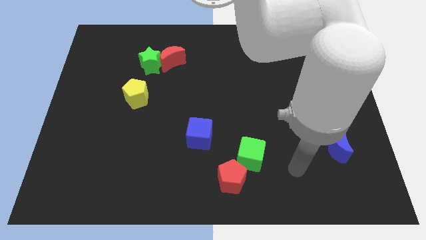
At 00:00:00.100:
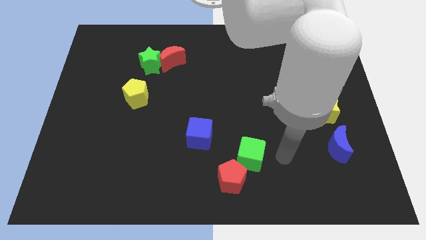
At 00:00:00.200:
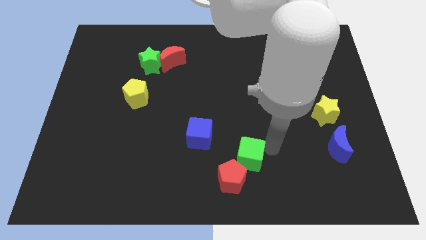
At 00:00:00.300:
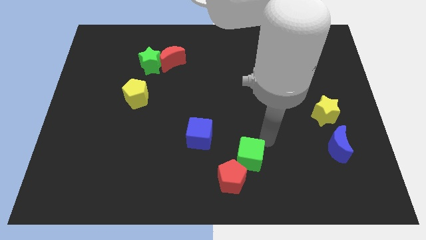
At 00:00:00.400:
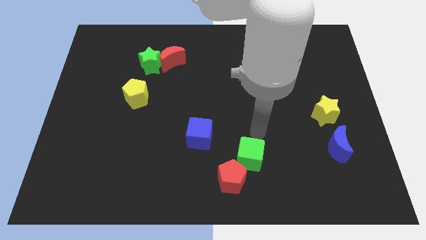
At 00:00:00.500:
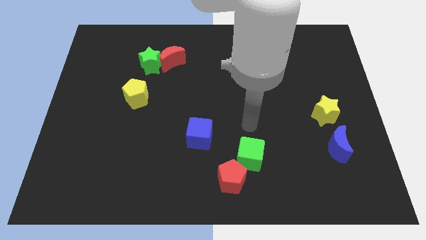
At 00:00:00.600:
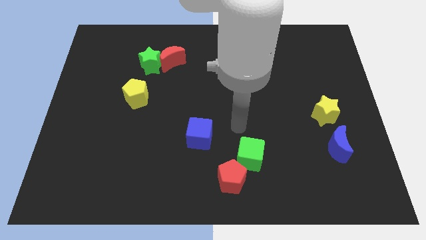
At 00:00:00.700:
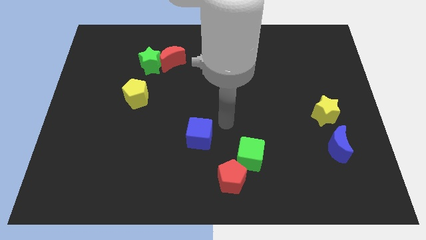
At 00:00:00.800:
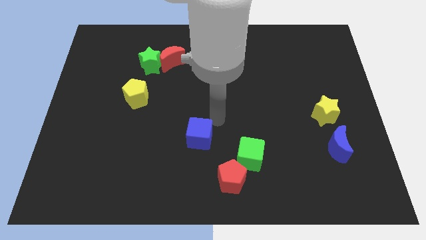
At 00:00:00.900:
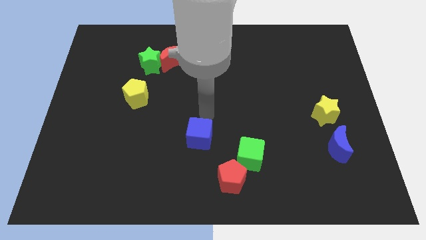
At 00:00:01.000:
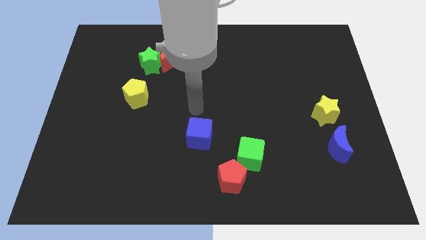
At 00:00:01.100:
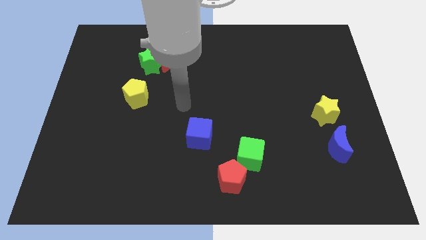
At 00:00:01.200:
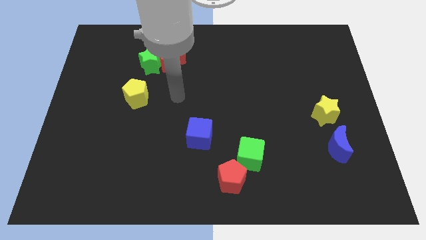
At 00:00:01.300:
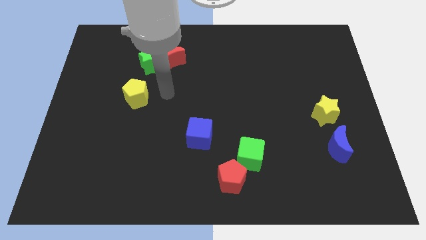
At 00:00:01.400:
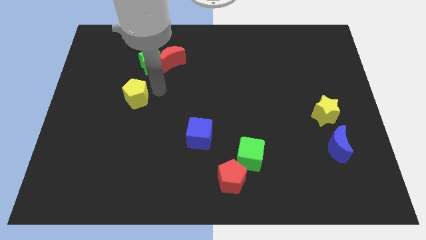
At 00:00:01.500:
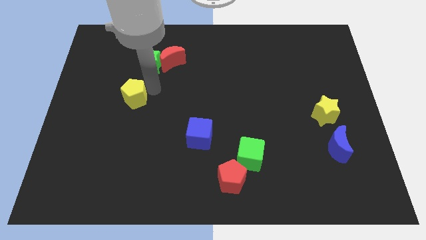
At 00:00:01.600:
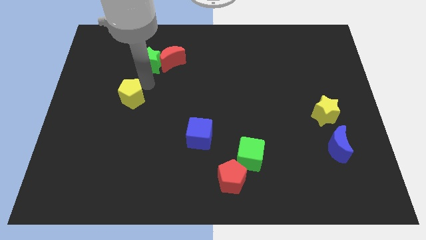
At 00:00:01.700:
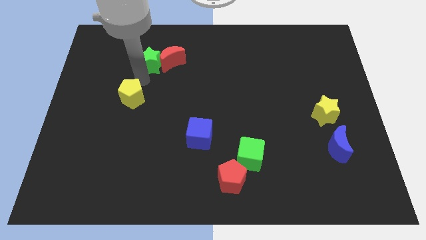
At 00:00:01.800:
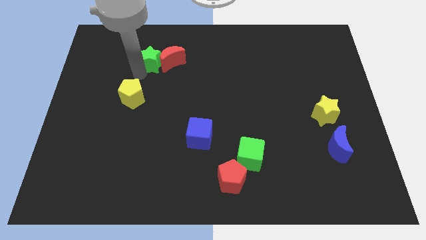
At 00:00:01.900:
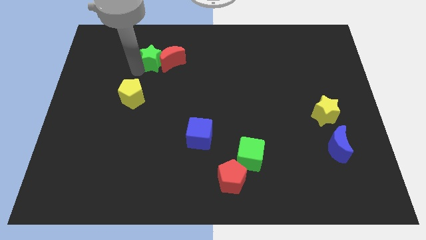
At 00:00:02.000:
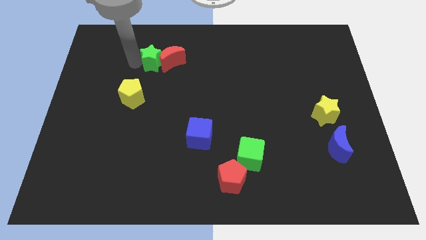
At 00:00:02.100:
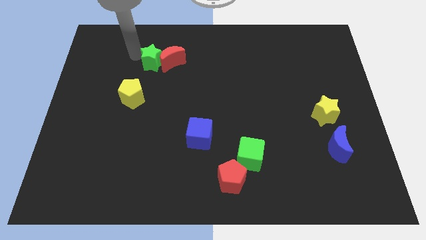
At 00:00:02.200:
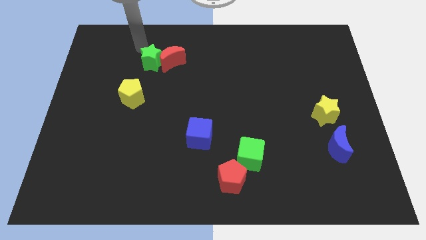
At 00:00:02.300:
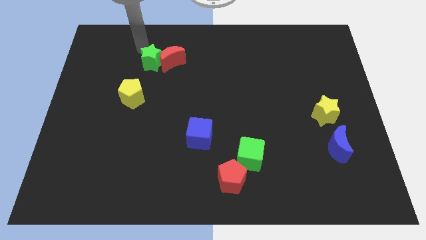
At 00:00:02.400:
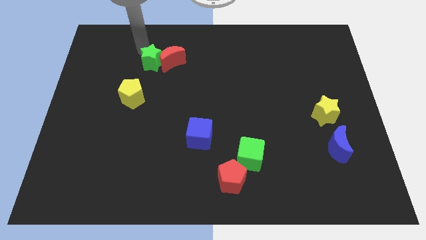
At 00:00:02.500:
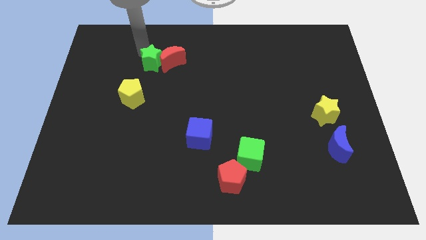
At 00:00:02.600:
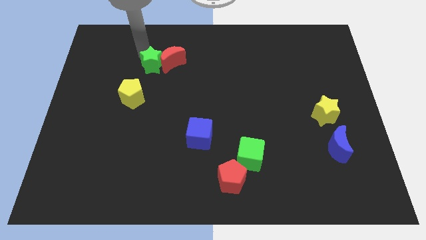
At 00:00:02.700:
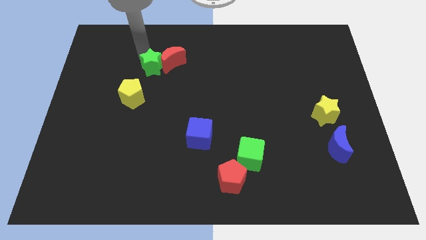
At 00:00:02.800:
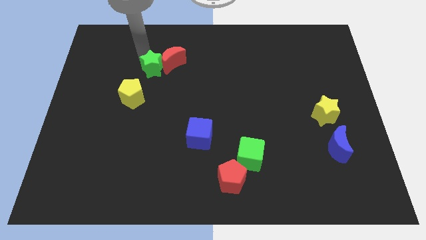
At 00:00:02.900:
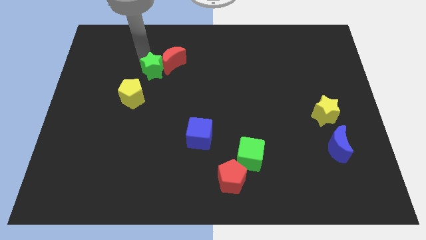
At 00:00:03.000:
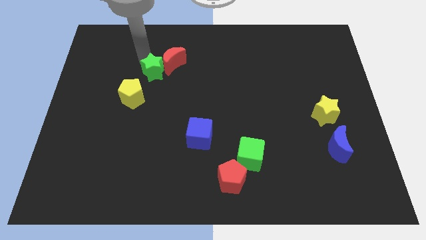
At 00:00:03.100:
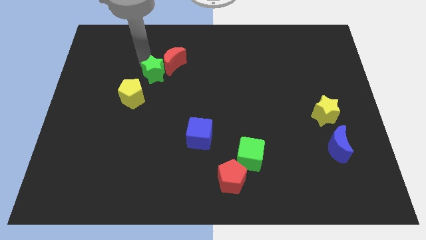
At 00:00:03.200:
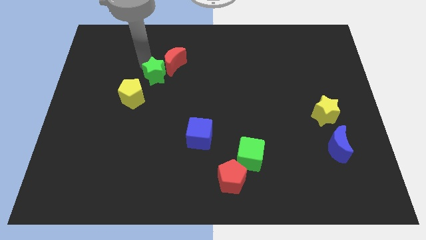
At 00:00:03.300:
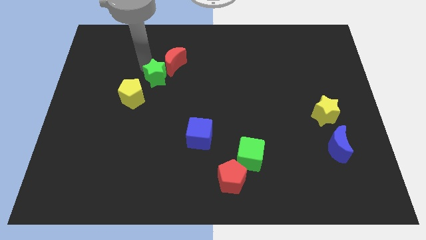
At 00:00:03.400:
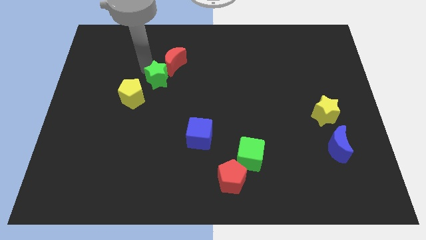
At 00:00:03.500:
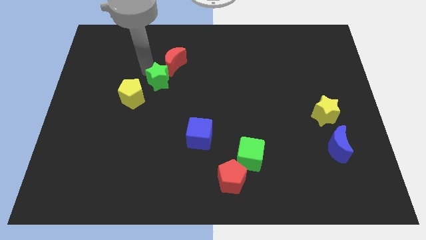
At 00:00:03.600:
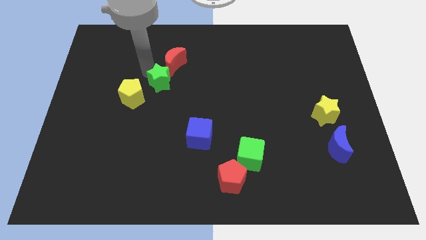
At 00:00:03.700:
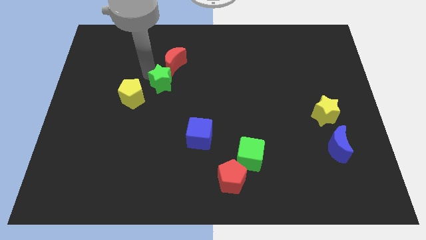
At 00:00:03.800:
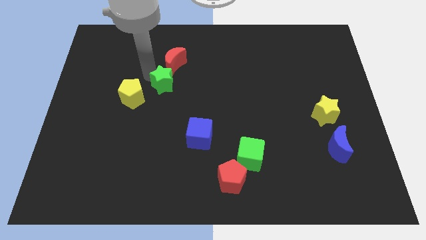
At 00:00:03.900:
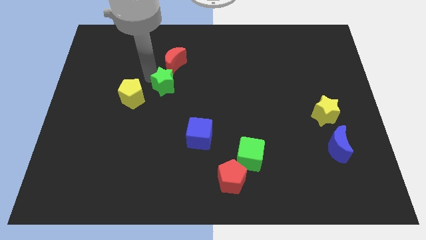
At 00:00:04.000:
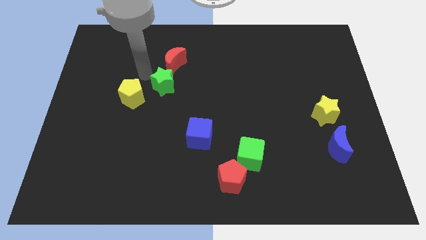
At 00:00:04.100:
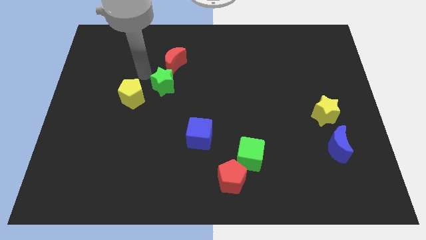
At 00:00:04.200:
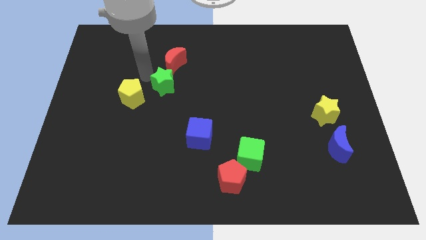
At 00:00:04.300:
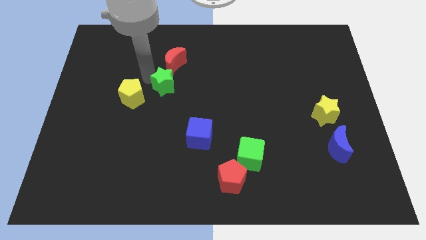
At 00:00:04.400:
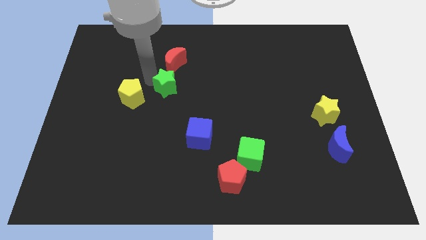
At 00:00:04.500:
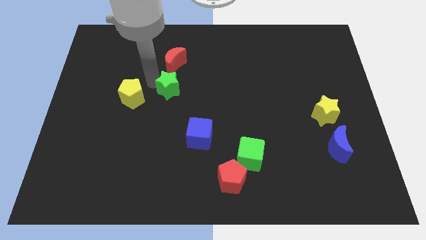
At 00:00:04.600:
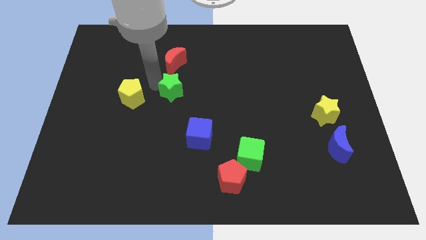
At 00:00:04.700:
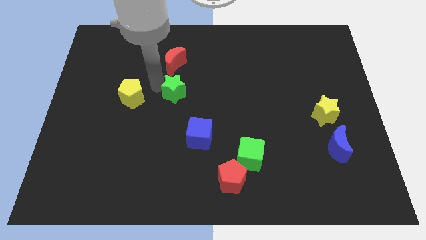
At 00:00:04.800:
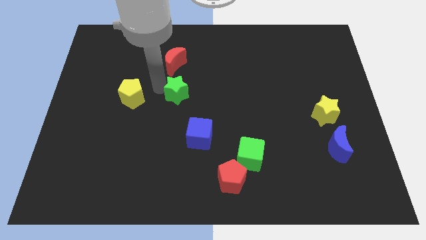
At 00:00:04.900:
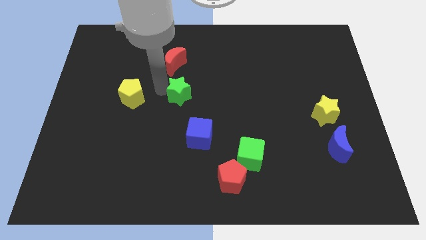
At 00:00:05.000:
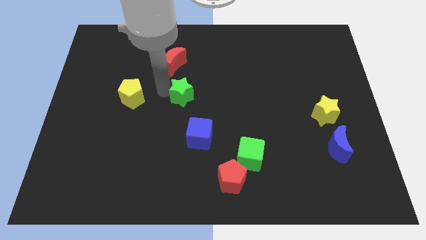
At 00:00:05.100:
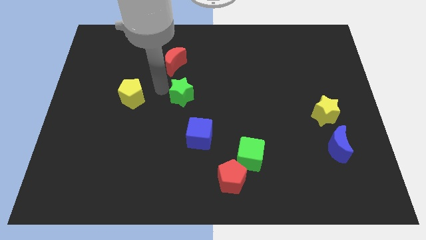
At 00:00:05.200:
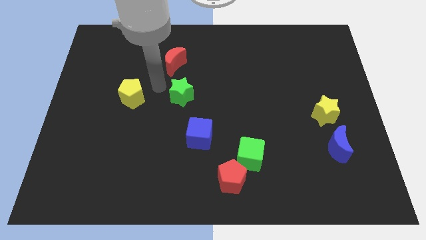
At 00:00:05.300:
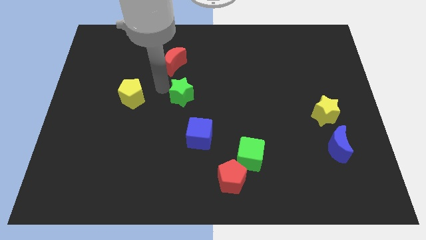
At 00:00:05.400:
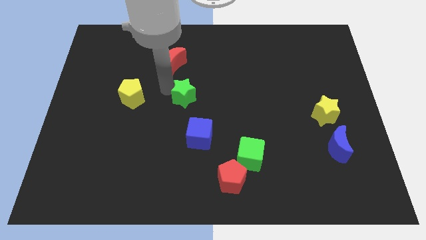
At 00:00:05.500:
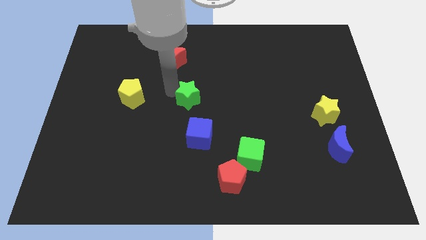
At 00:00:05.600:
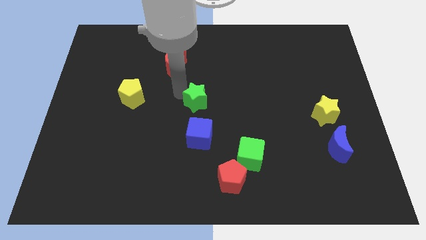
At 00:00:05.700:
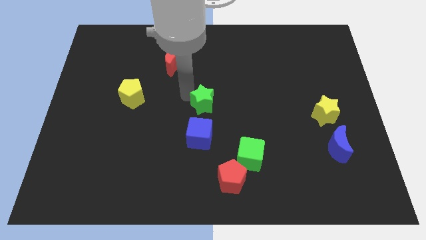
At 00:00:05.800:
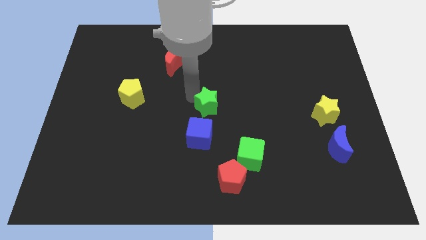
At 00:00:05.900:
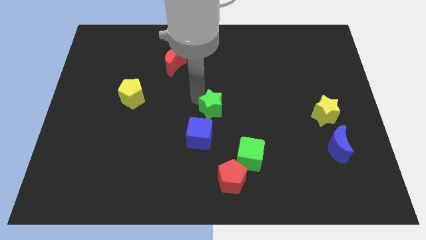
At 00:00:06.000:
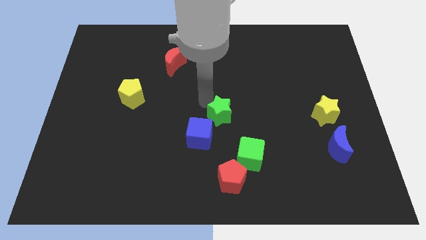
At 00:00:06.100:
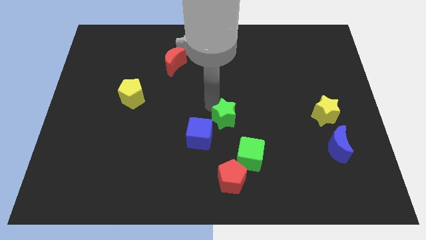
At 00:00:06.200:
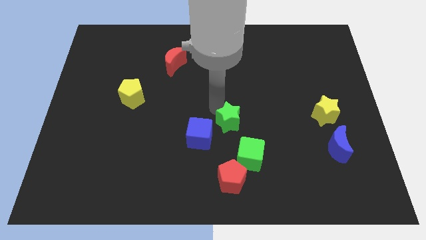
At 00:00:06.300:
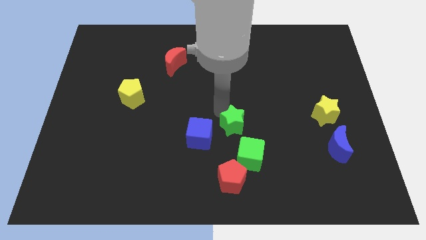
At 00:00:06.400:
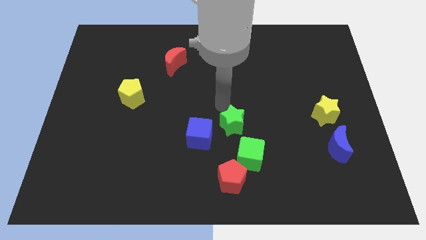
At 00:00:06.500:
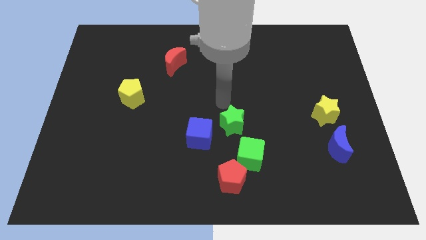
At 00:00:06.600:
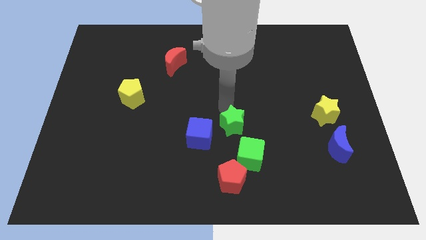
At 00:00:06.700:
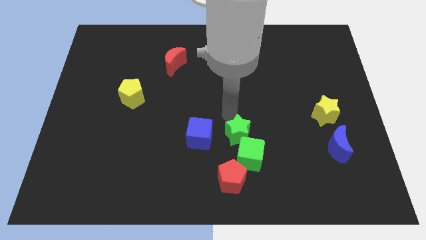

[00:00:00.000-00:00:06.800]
put the green star close to the green cube

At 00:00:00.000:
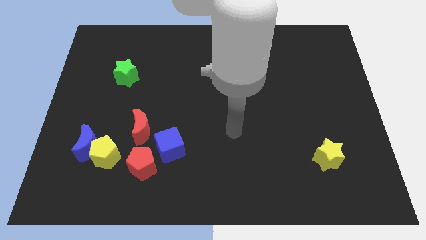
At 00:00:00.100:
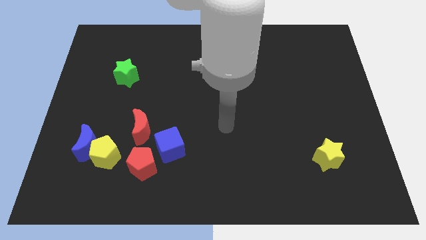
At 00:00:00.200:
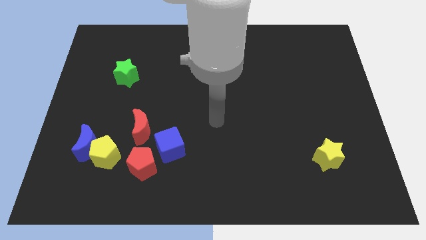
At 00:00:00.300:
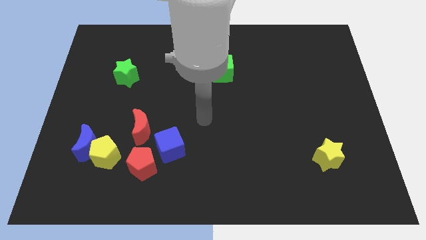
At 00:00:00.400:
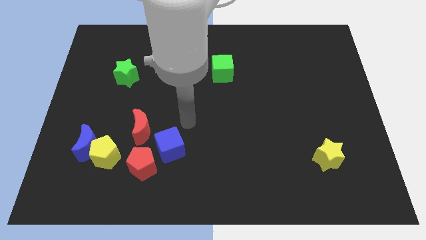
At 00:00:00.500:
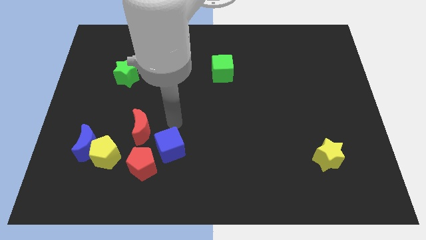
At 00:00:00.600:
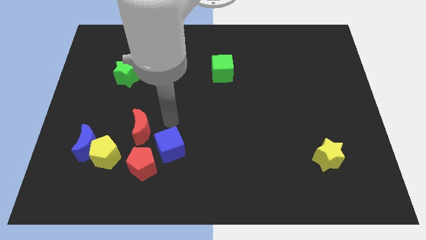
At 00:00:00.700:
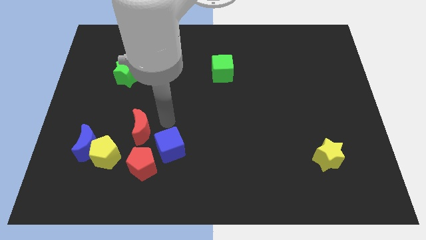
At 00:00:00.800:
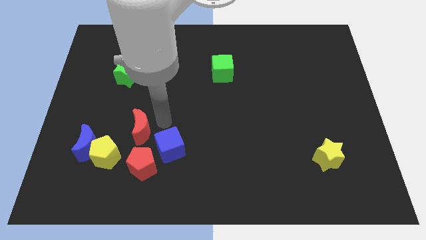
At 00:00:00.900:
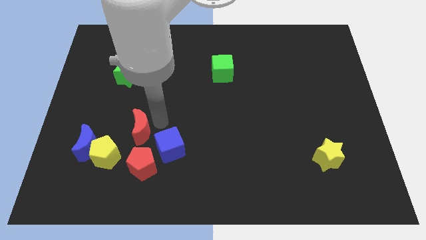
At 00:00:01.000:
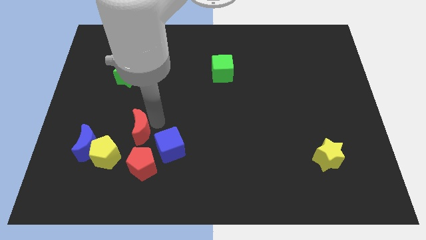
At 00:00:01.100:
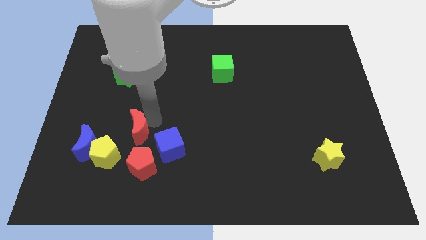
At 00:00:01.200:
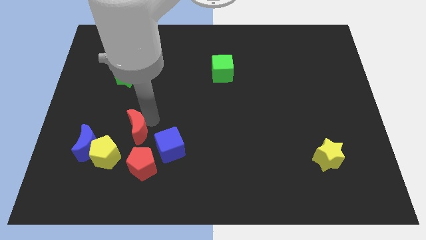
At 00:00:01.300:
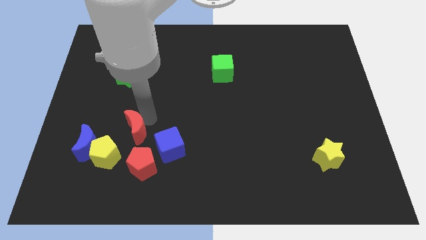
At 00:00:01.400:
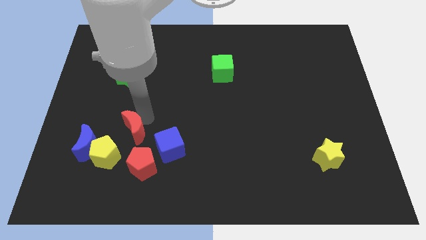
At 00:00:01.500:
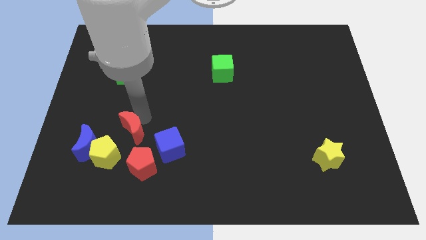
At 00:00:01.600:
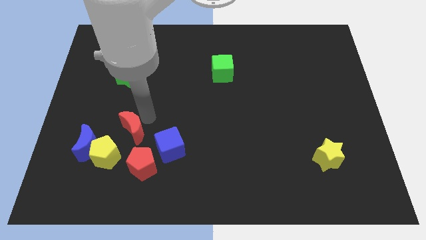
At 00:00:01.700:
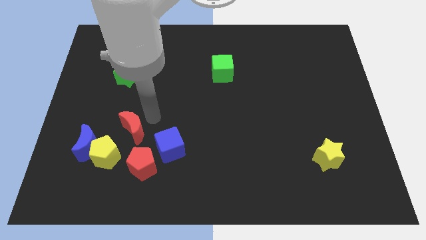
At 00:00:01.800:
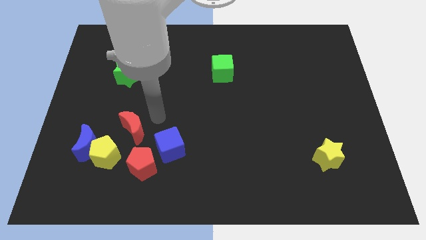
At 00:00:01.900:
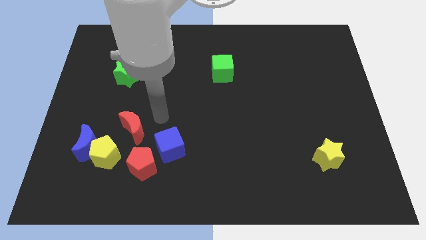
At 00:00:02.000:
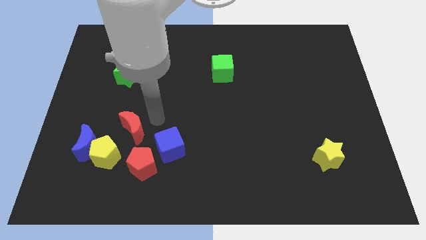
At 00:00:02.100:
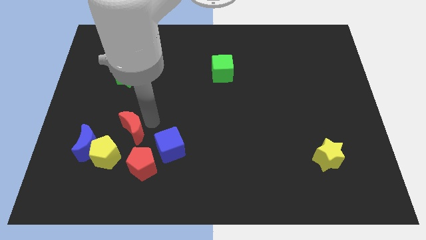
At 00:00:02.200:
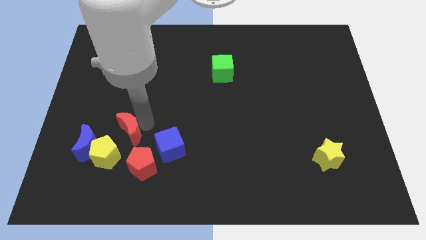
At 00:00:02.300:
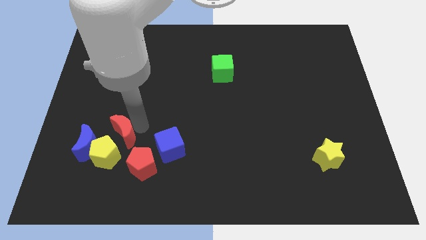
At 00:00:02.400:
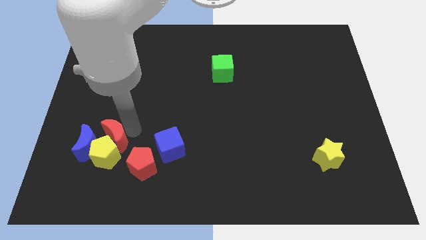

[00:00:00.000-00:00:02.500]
push the red moon to the blue moon
